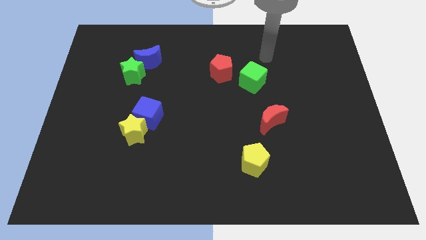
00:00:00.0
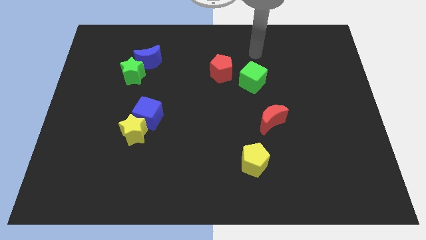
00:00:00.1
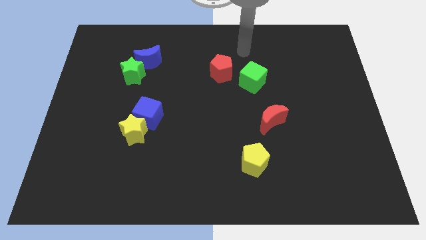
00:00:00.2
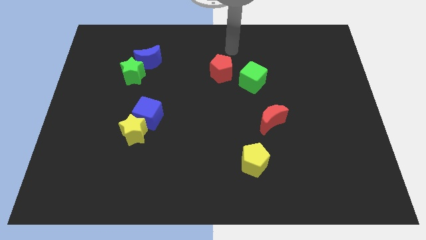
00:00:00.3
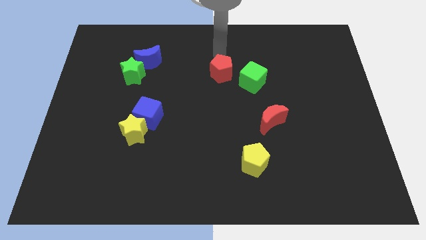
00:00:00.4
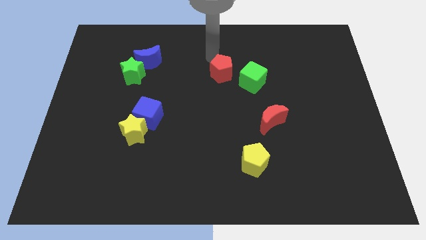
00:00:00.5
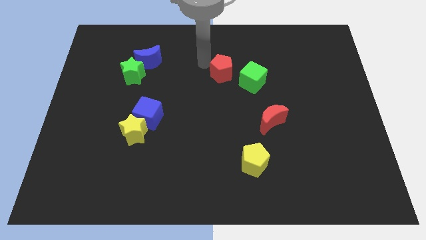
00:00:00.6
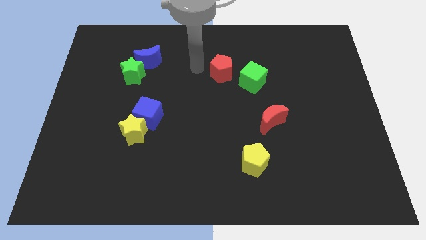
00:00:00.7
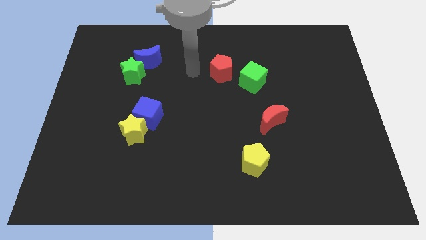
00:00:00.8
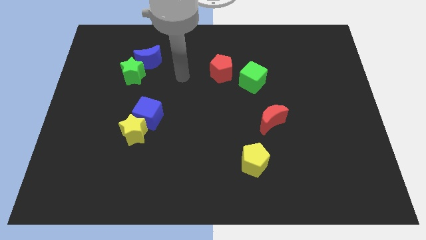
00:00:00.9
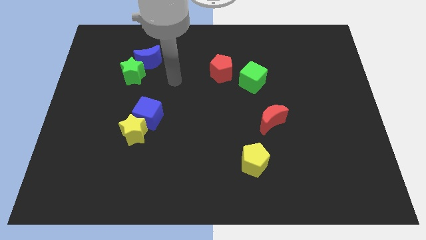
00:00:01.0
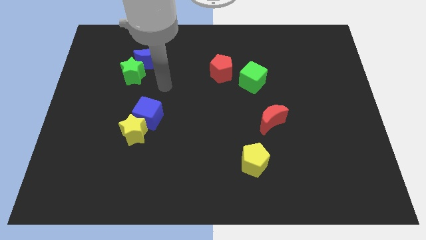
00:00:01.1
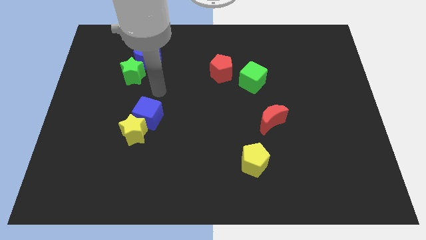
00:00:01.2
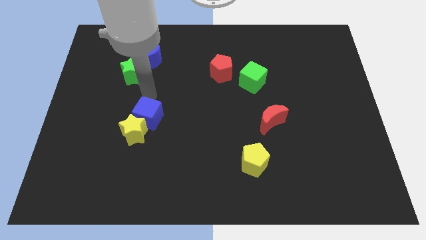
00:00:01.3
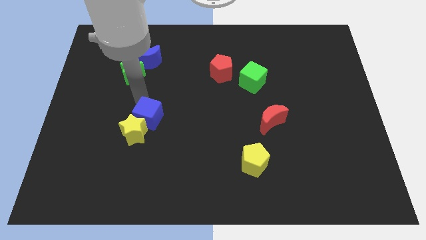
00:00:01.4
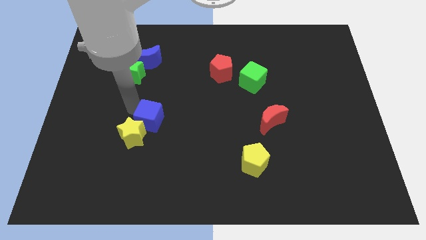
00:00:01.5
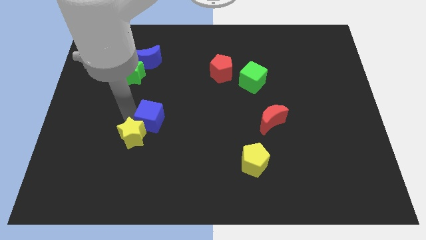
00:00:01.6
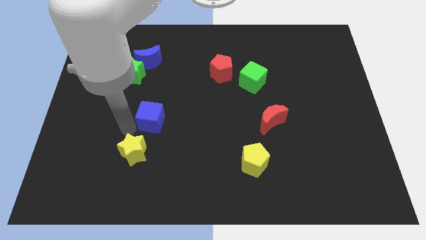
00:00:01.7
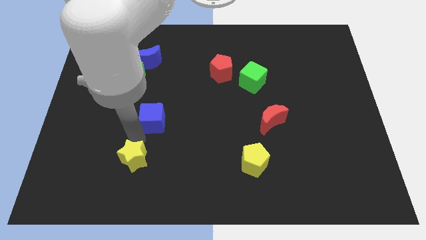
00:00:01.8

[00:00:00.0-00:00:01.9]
move the blue cube away from the yellow star

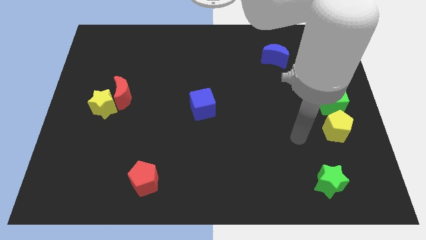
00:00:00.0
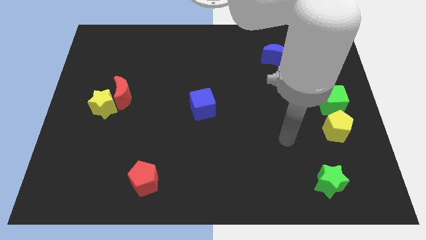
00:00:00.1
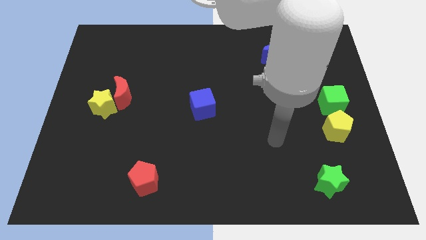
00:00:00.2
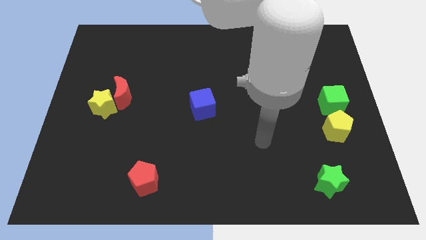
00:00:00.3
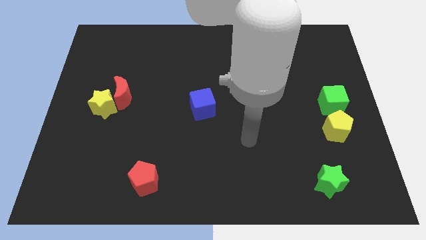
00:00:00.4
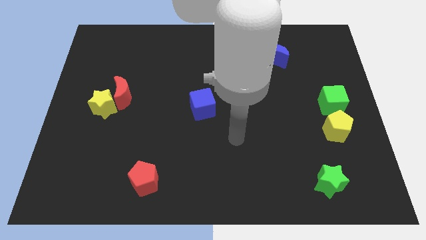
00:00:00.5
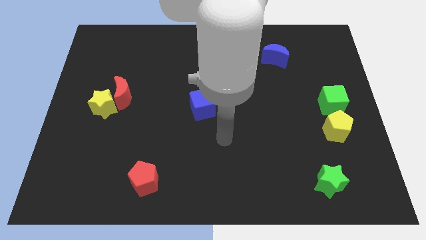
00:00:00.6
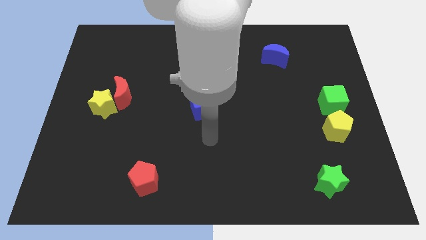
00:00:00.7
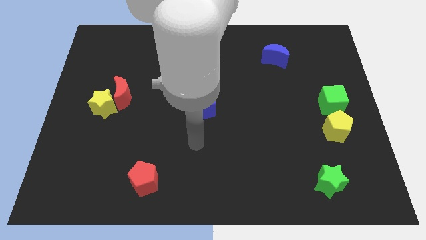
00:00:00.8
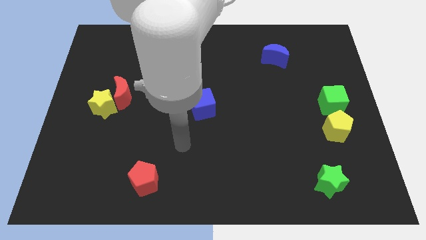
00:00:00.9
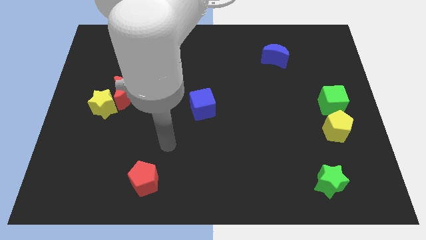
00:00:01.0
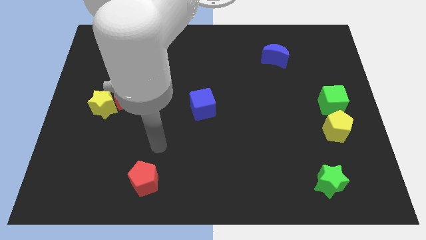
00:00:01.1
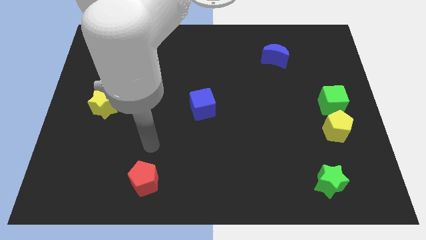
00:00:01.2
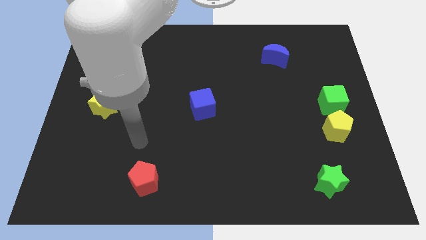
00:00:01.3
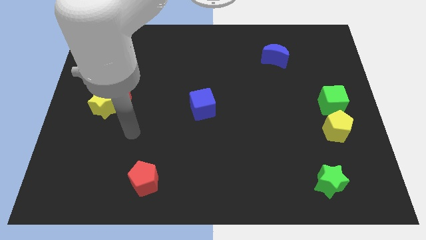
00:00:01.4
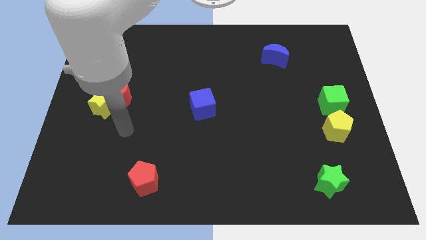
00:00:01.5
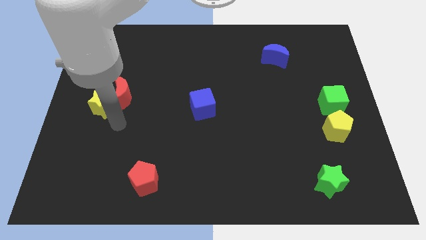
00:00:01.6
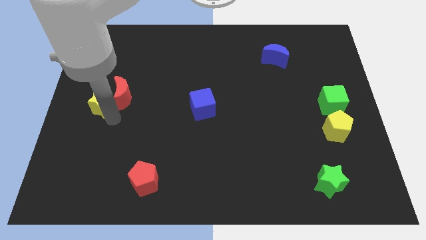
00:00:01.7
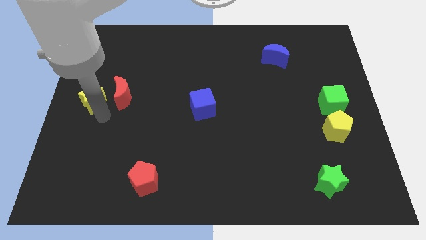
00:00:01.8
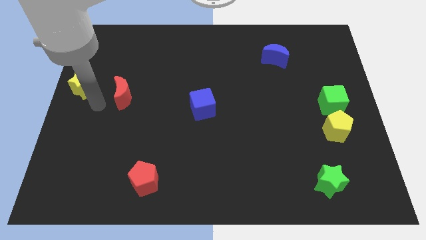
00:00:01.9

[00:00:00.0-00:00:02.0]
pull the red moon apart from the yellow star

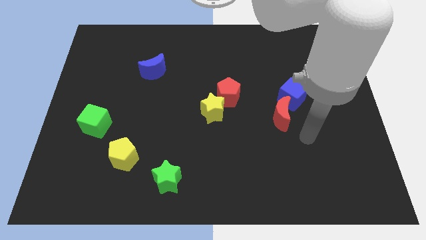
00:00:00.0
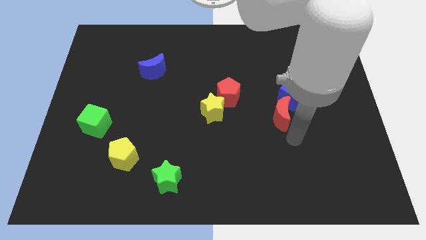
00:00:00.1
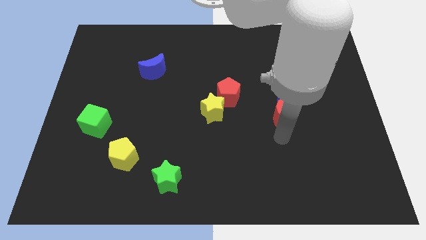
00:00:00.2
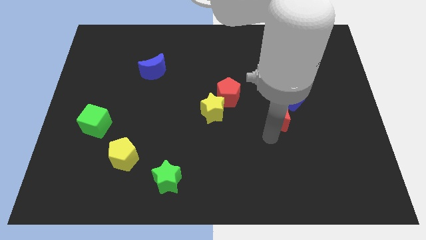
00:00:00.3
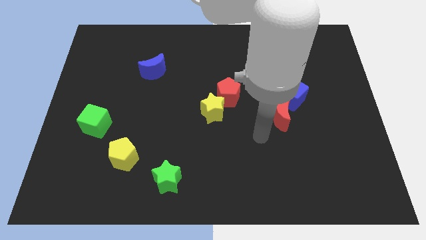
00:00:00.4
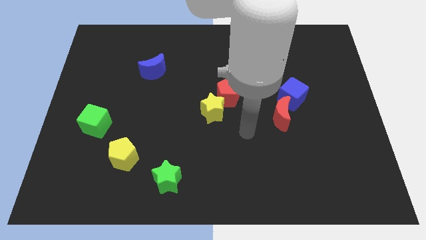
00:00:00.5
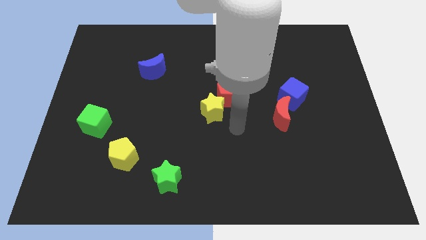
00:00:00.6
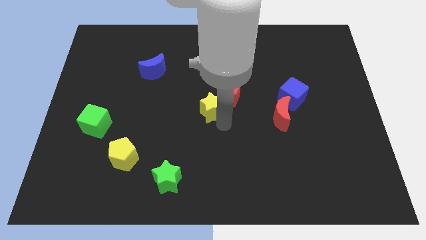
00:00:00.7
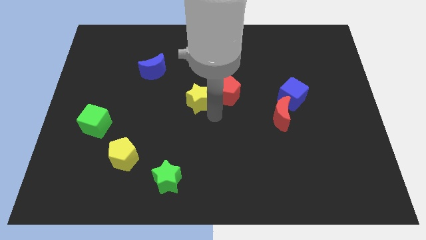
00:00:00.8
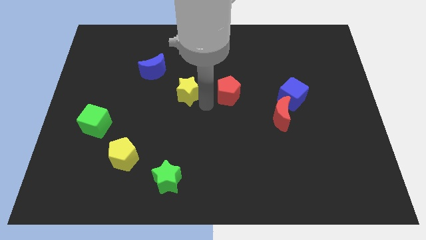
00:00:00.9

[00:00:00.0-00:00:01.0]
move the red pentagon away from the yellow star

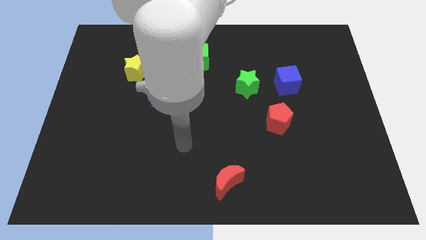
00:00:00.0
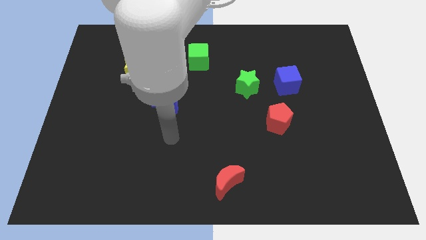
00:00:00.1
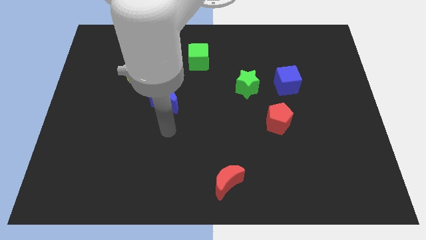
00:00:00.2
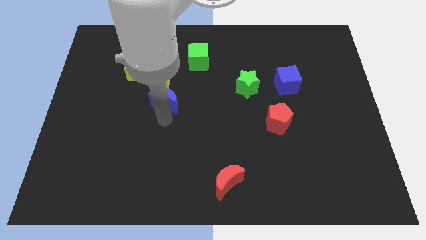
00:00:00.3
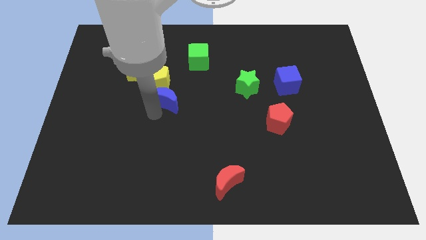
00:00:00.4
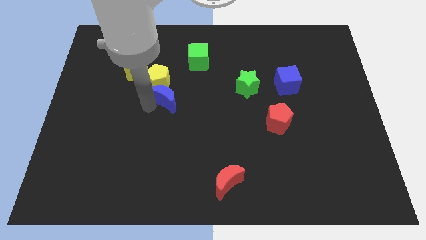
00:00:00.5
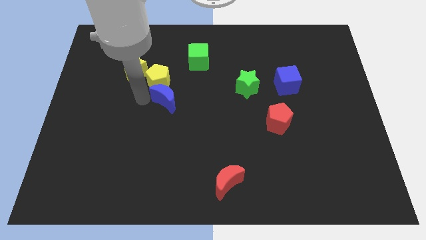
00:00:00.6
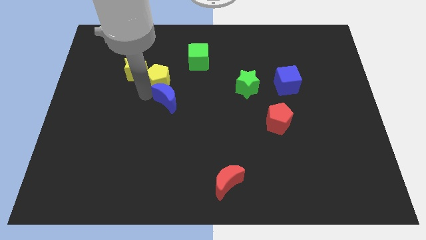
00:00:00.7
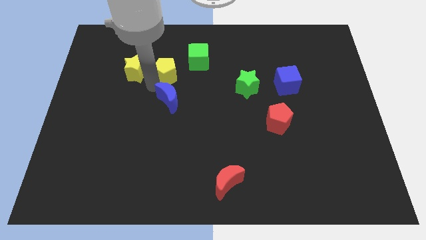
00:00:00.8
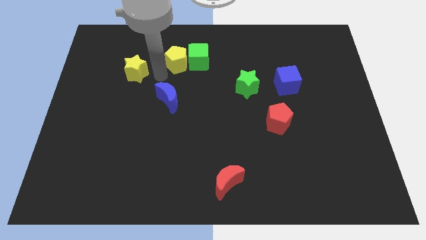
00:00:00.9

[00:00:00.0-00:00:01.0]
pull the yellow star apart from the yellow pentagon

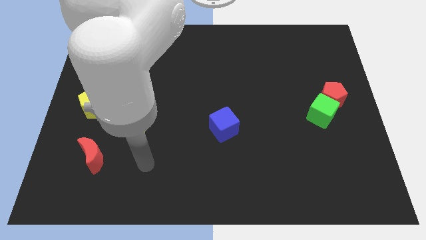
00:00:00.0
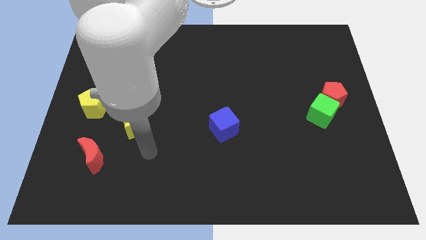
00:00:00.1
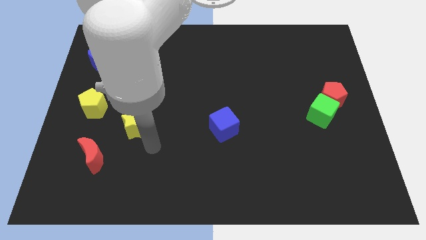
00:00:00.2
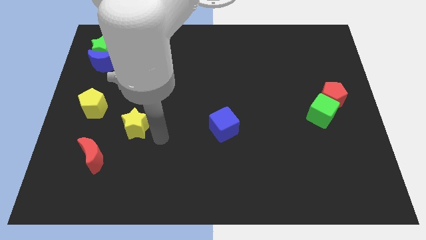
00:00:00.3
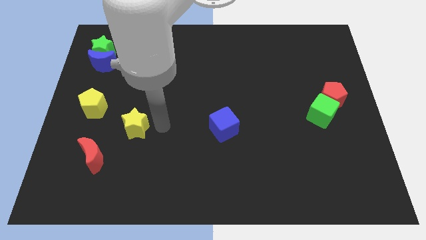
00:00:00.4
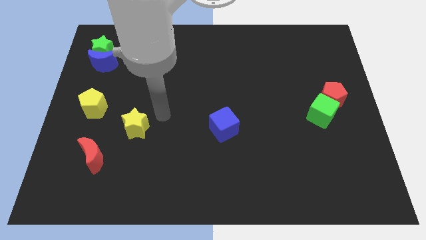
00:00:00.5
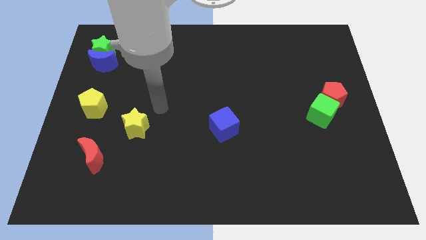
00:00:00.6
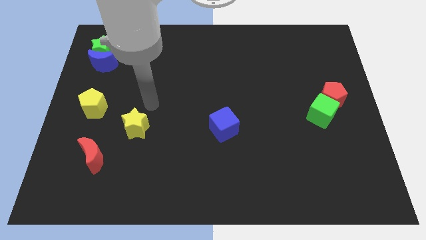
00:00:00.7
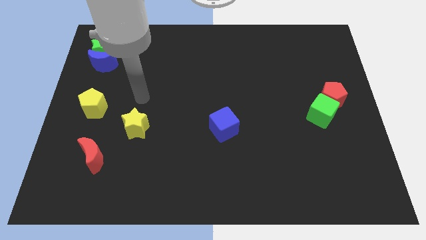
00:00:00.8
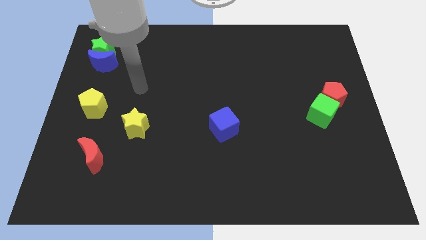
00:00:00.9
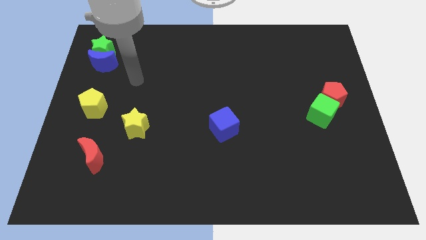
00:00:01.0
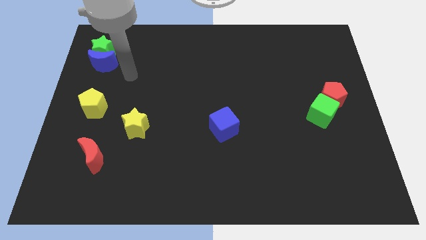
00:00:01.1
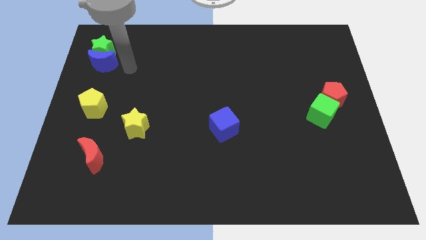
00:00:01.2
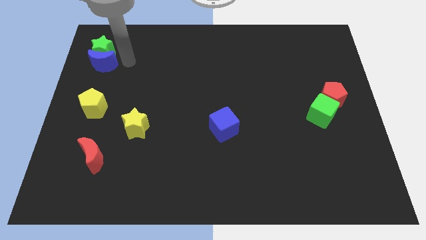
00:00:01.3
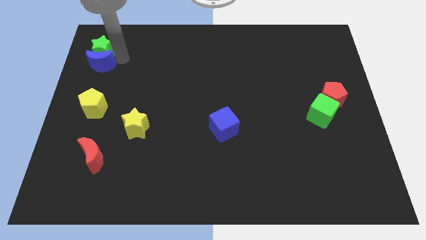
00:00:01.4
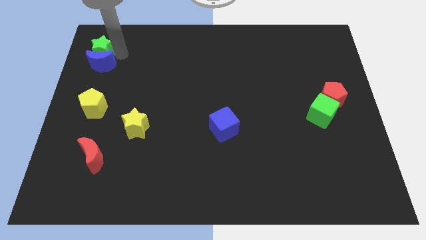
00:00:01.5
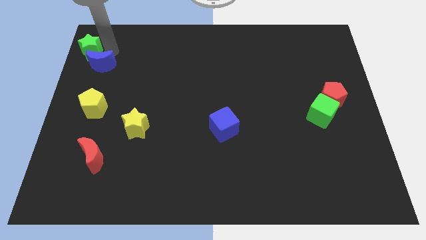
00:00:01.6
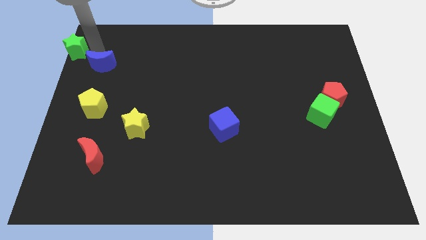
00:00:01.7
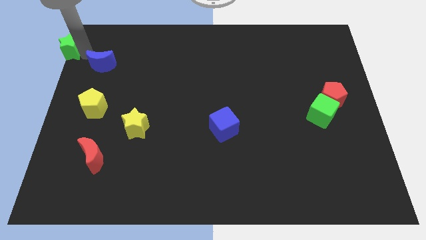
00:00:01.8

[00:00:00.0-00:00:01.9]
separate the blue moon from the green star

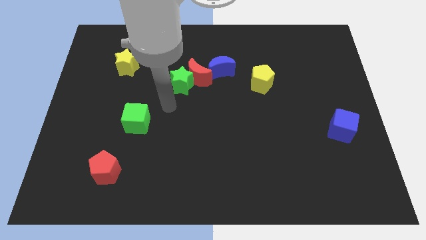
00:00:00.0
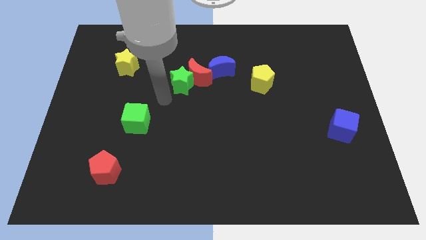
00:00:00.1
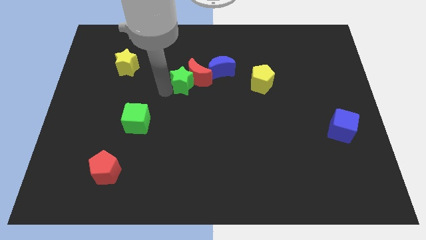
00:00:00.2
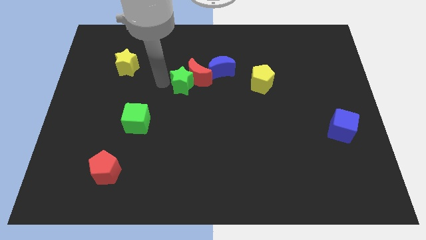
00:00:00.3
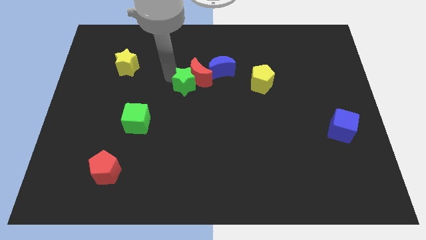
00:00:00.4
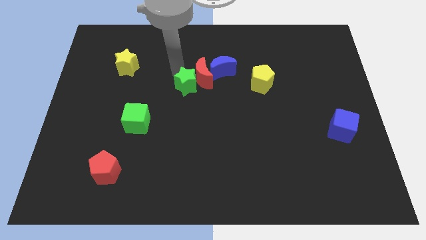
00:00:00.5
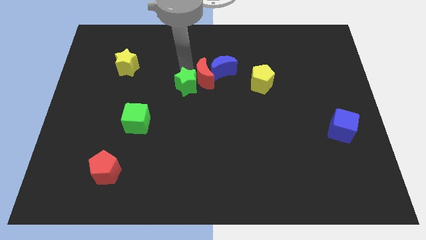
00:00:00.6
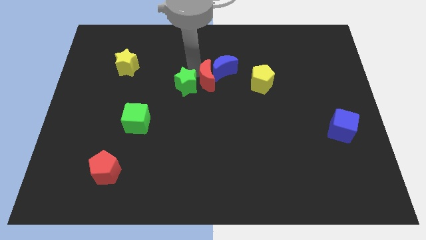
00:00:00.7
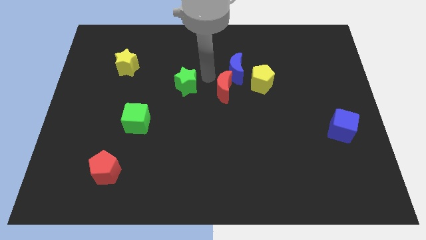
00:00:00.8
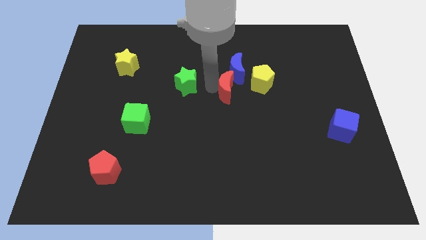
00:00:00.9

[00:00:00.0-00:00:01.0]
move the green star away from the red moon

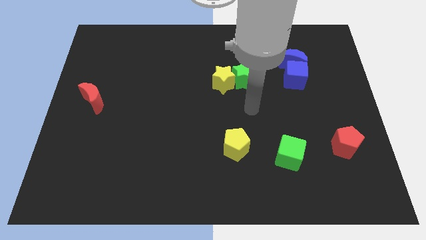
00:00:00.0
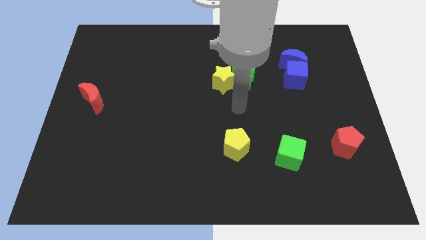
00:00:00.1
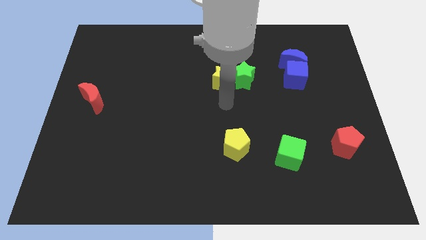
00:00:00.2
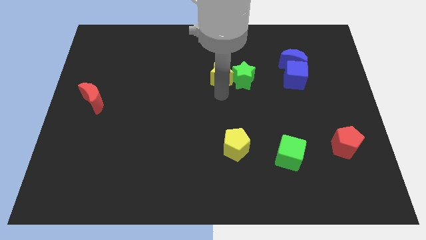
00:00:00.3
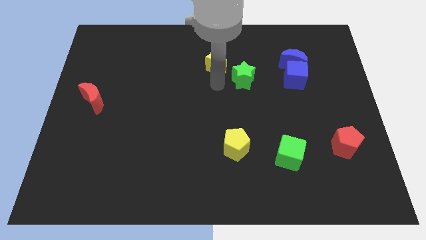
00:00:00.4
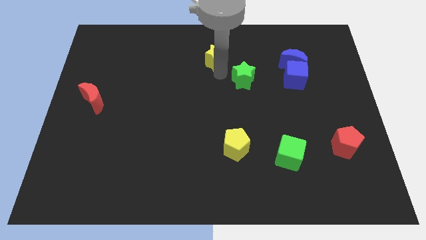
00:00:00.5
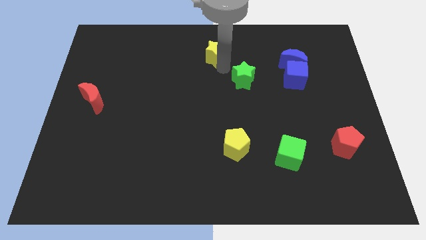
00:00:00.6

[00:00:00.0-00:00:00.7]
separate the green star from the yellow star

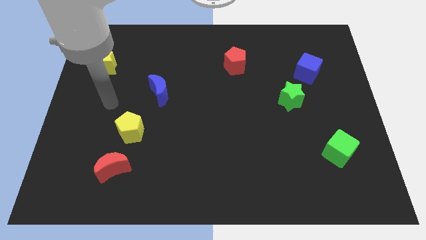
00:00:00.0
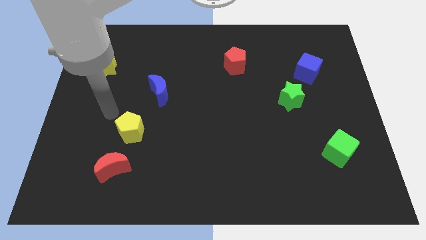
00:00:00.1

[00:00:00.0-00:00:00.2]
pull the red moon apart from the yellow pentagon
